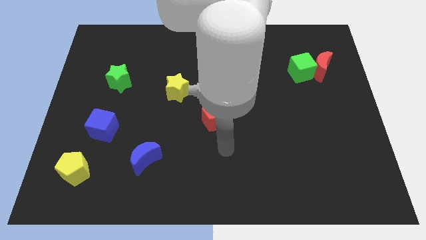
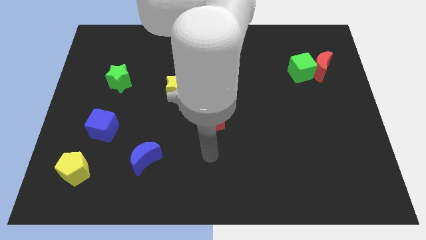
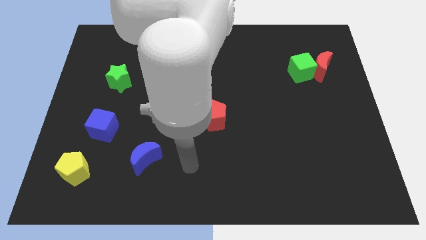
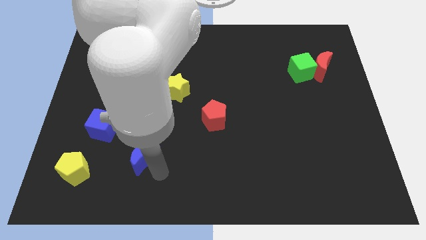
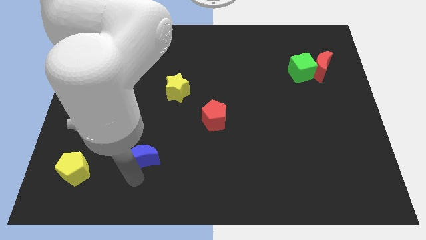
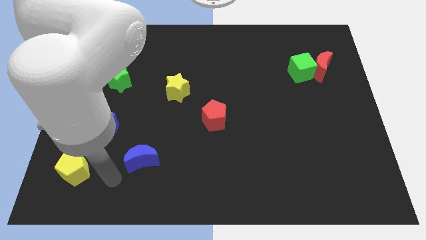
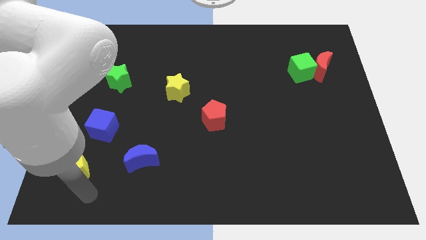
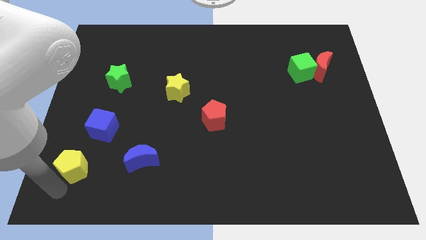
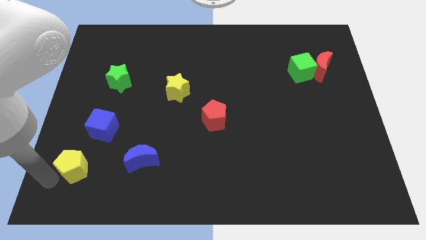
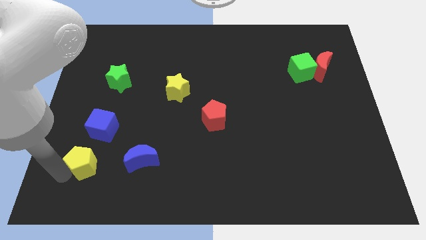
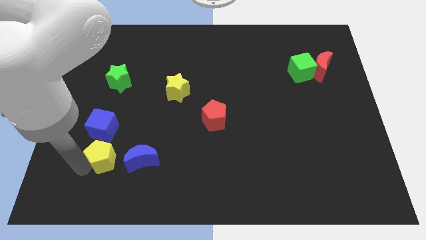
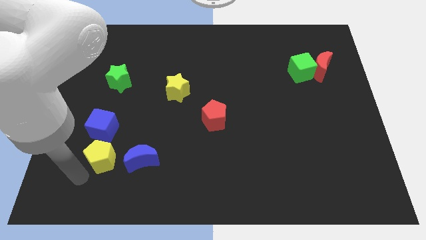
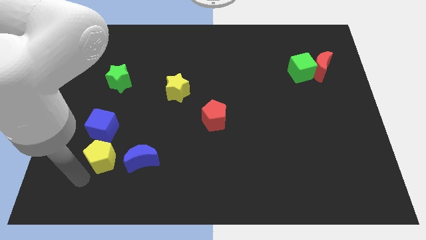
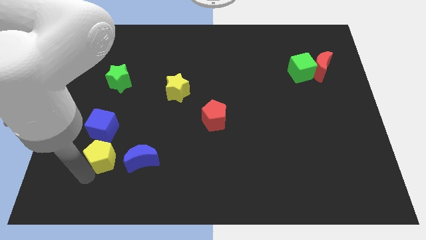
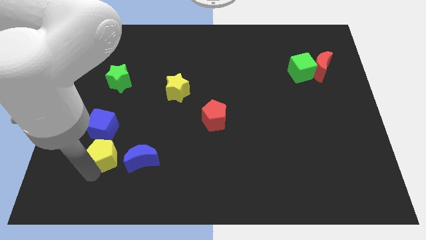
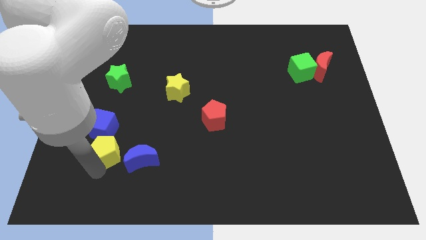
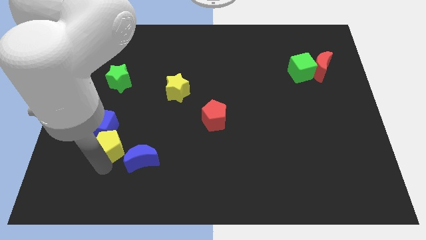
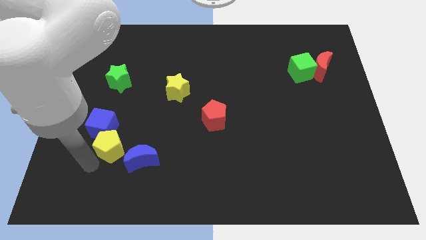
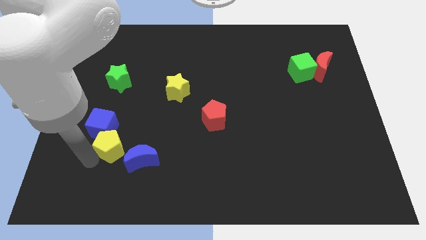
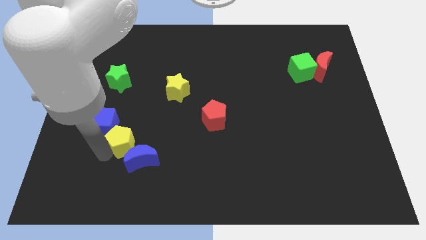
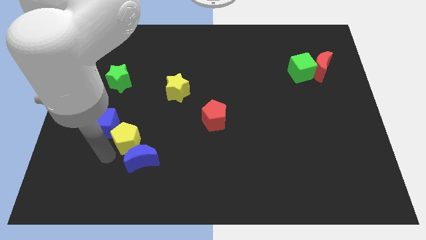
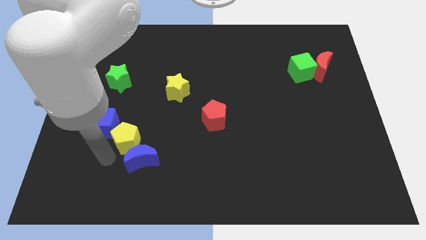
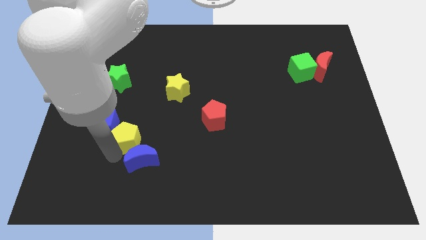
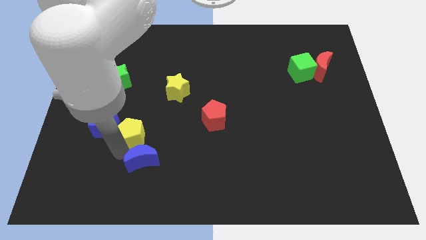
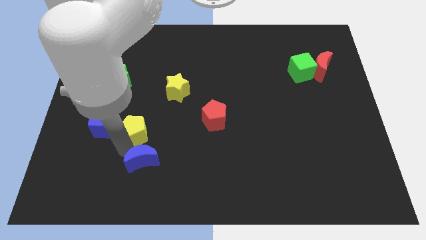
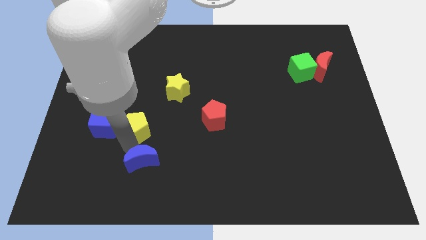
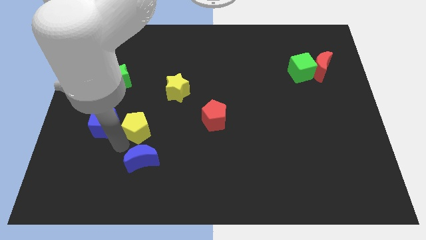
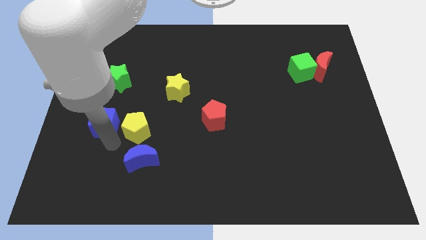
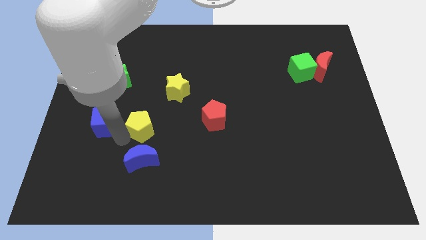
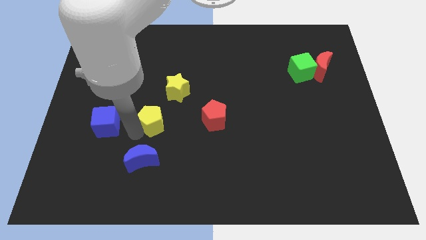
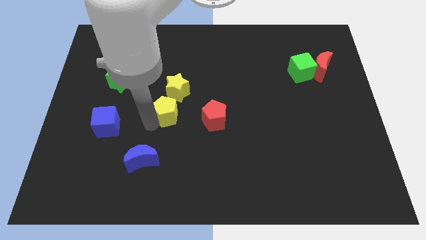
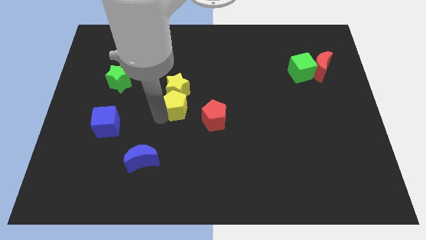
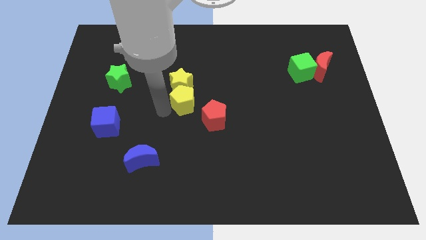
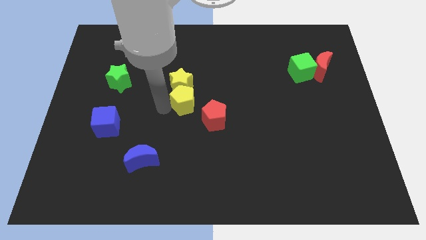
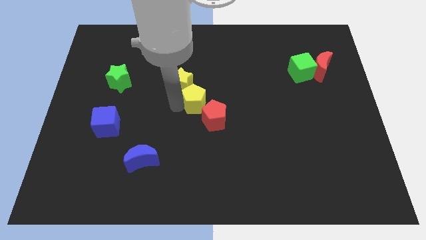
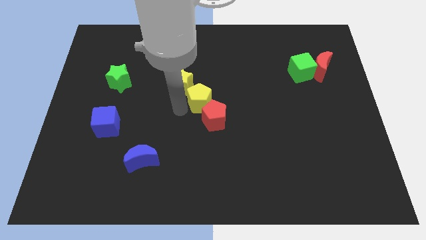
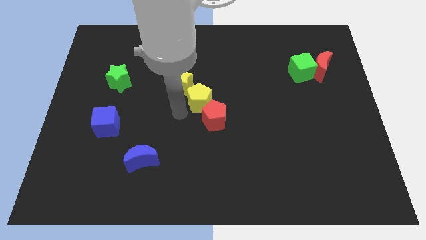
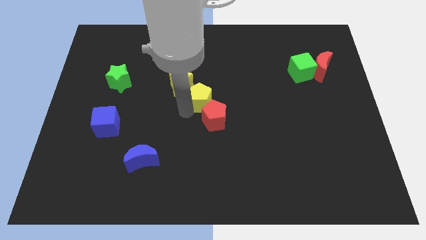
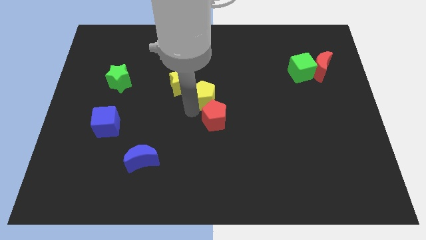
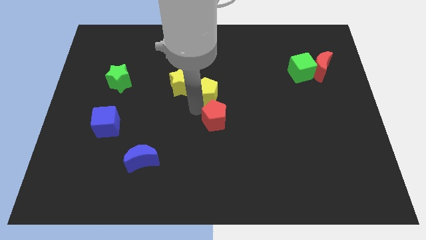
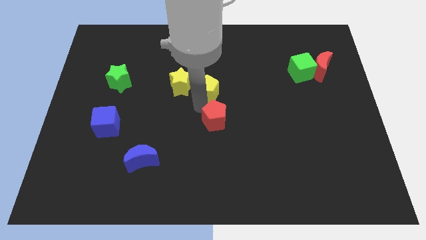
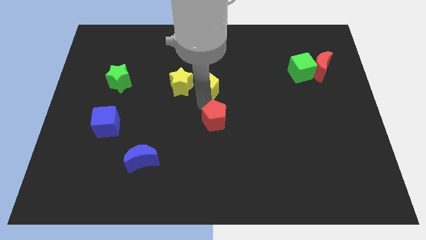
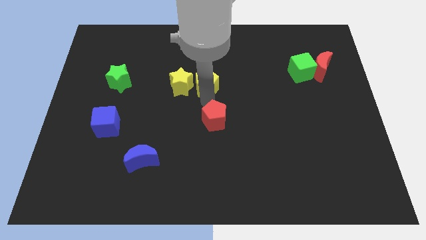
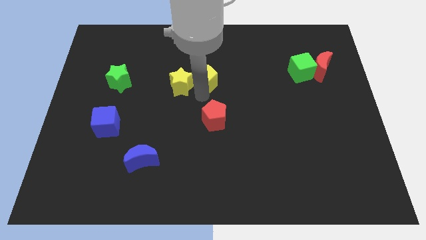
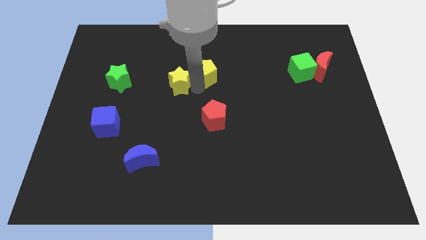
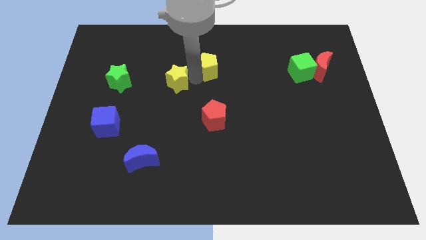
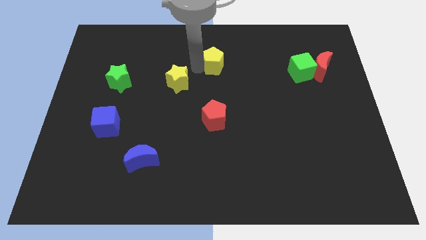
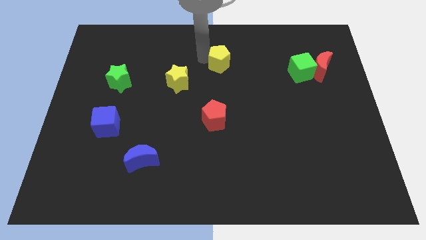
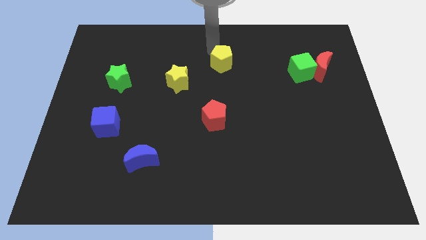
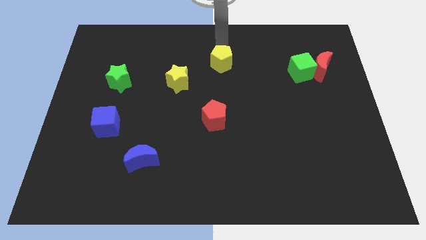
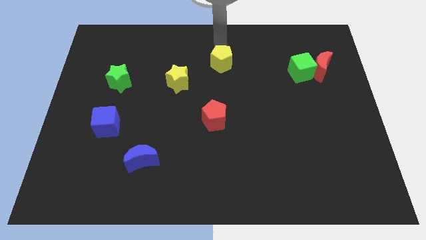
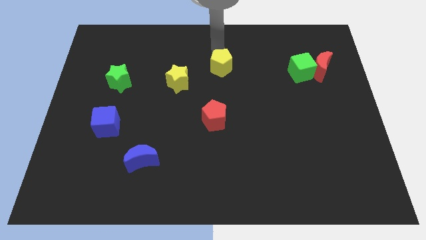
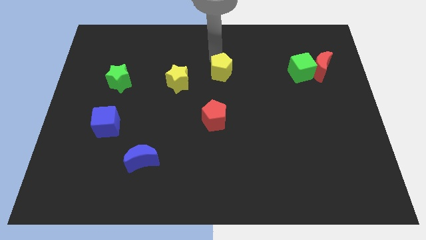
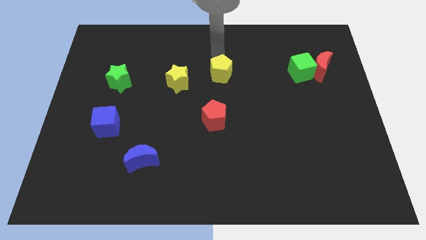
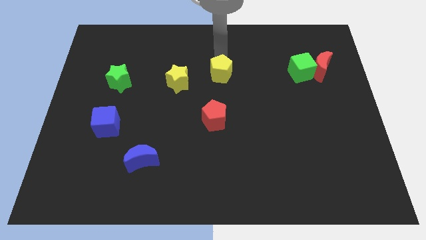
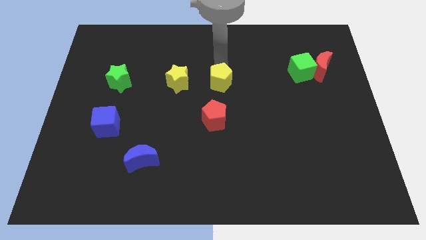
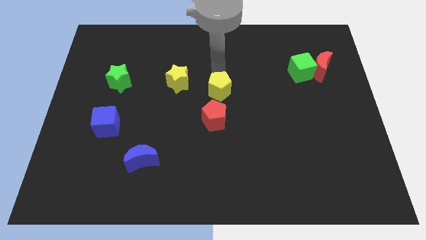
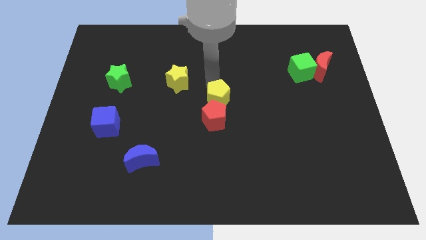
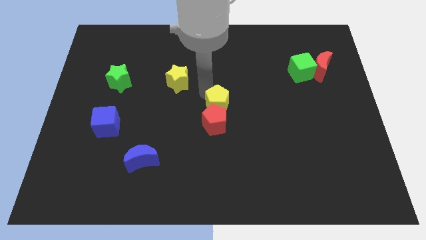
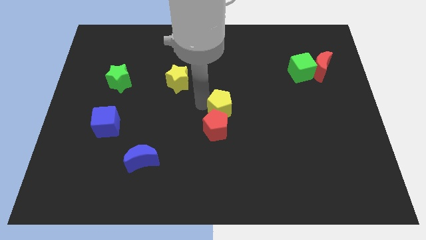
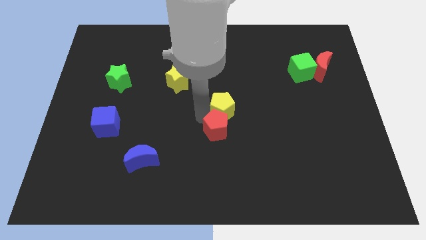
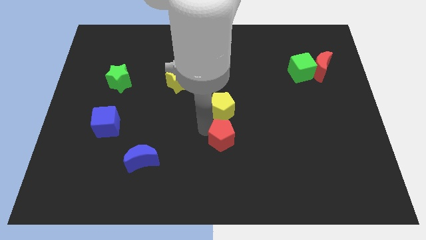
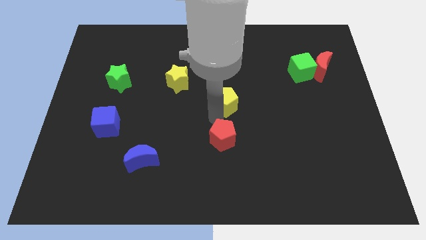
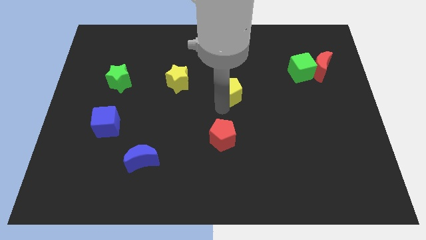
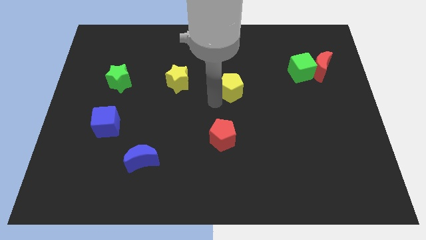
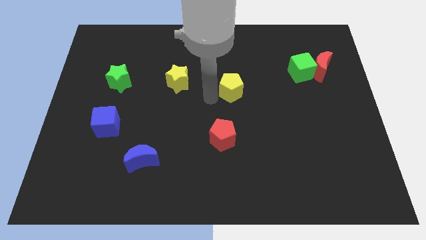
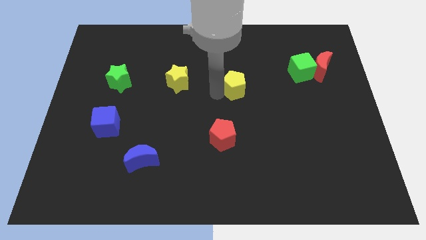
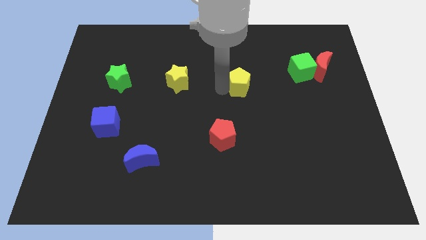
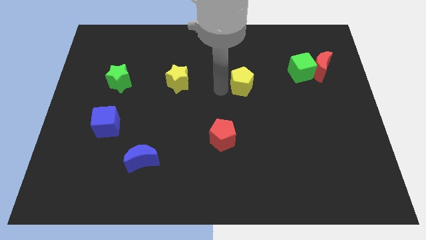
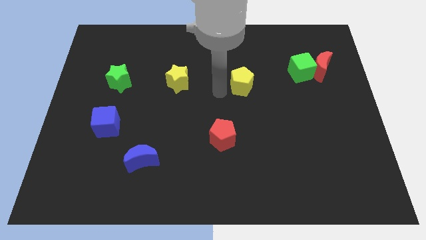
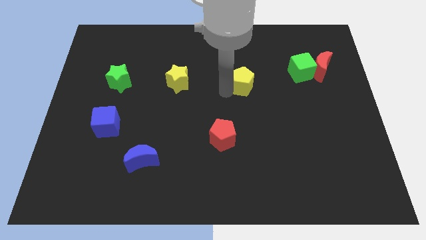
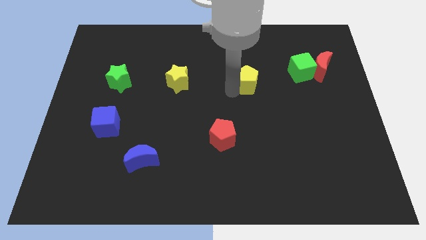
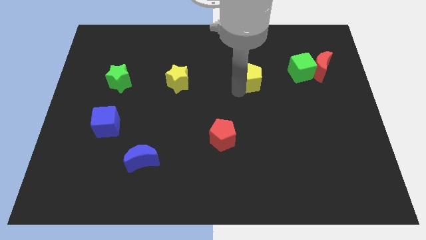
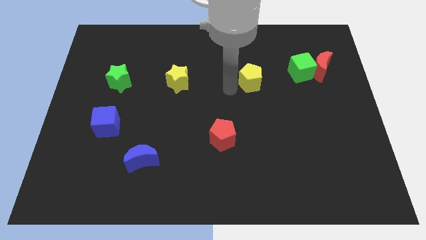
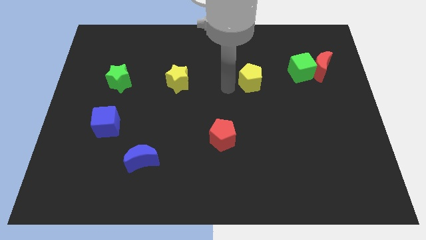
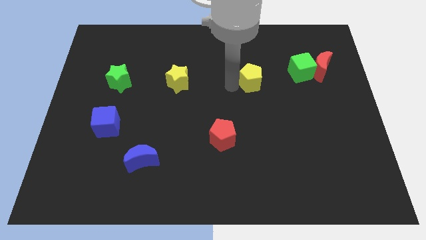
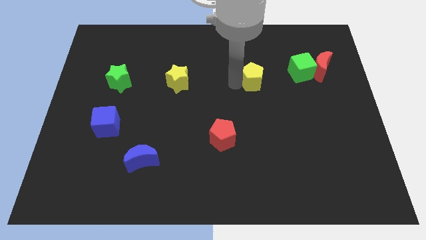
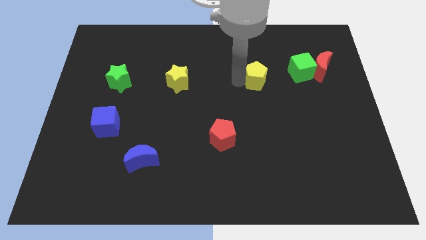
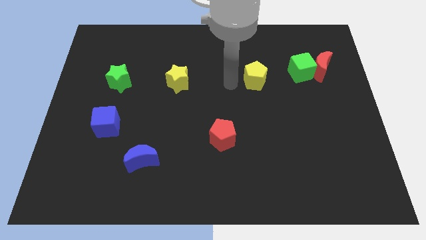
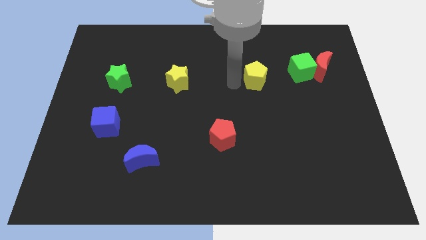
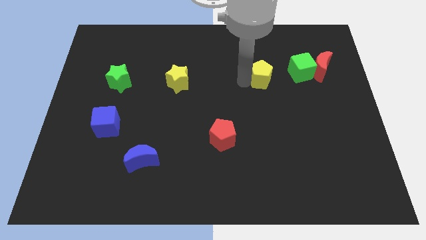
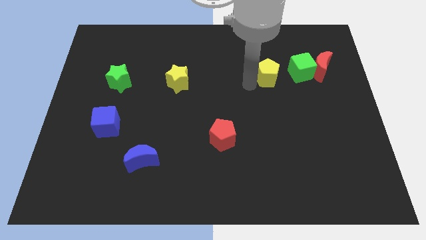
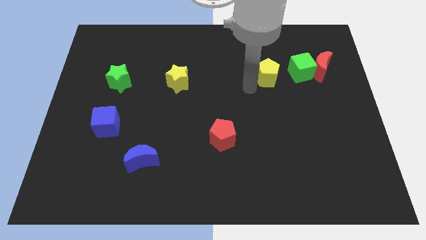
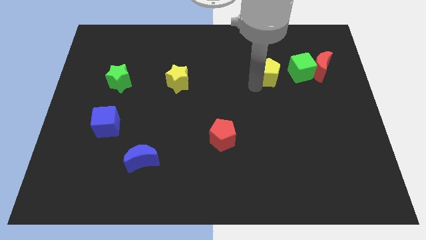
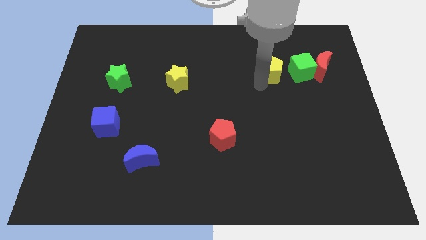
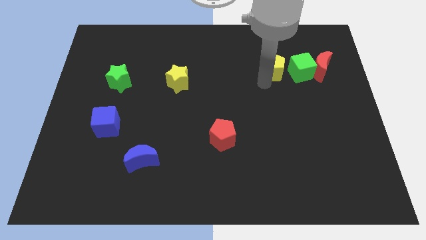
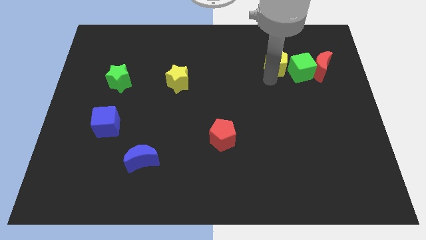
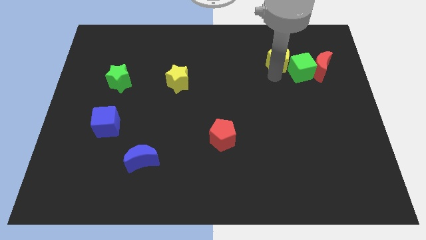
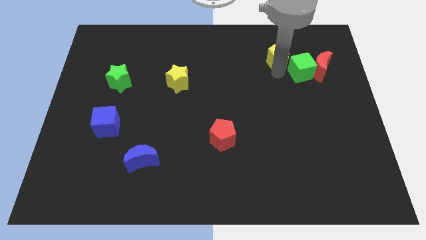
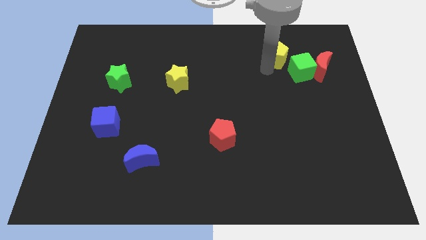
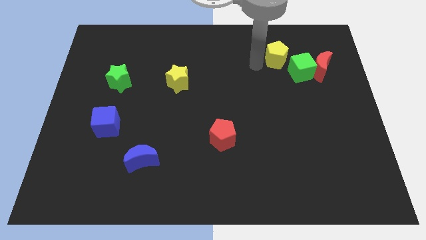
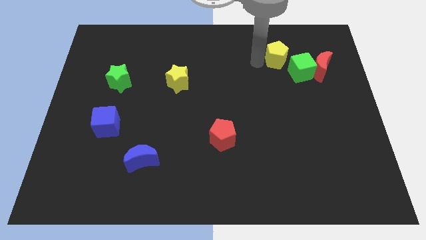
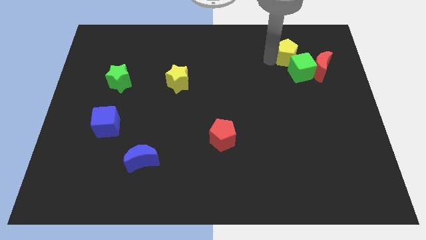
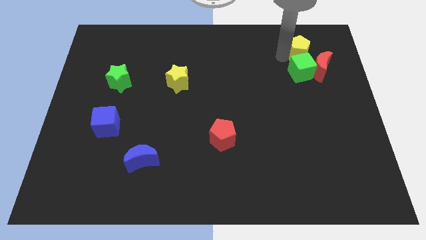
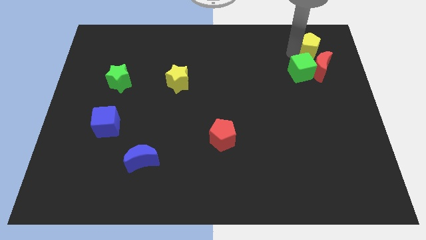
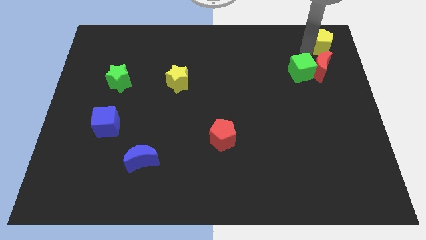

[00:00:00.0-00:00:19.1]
push the yellow pentagon to the top right
